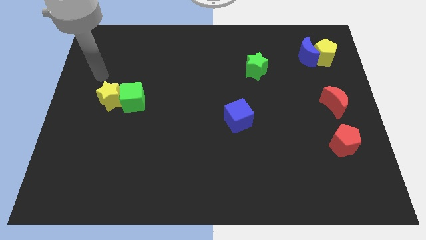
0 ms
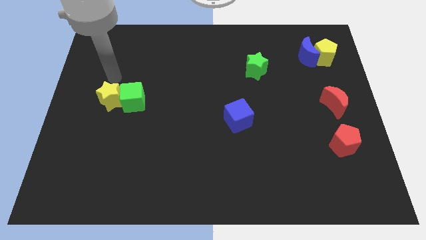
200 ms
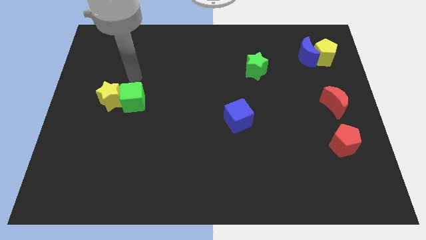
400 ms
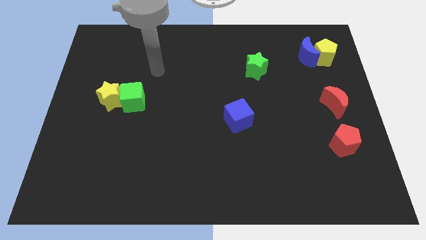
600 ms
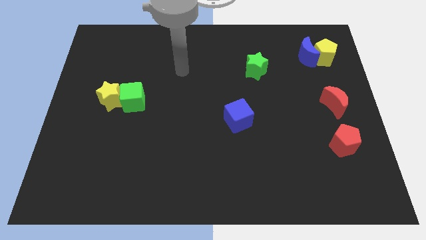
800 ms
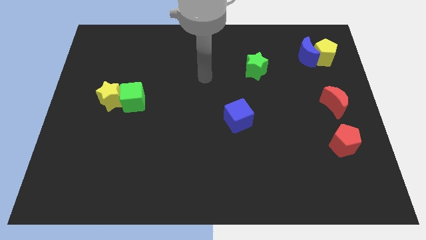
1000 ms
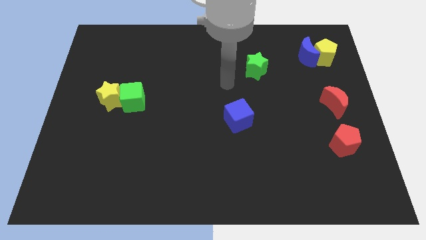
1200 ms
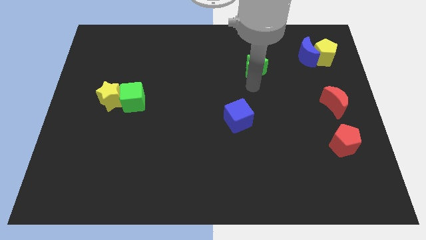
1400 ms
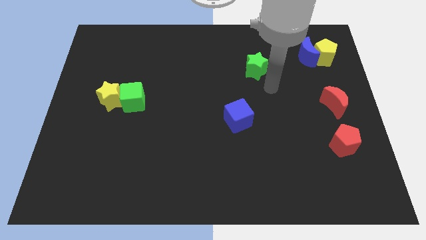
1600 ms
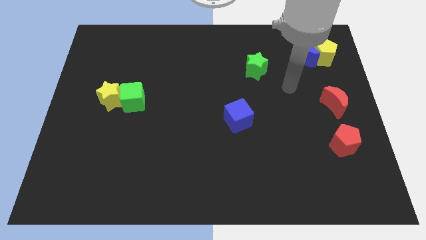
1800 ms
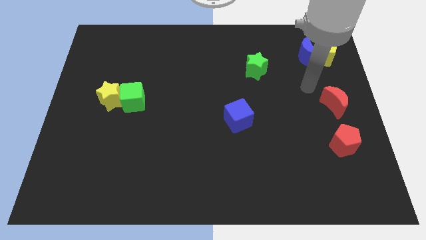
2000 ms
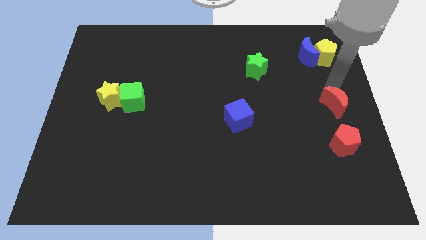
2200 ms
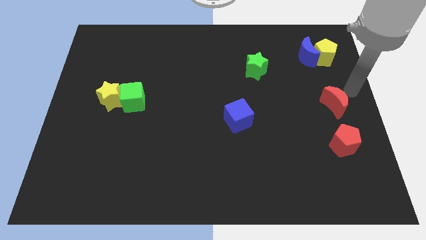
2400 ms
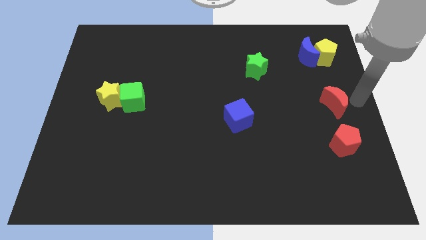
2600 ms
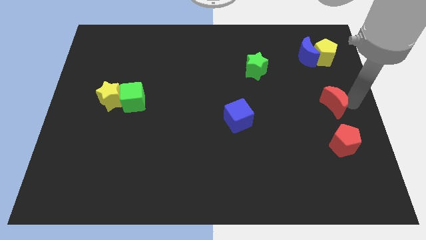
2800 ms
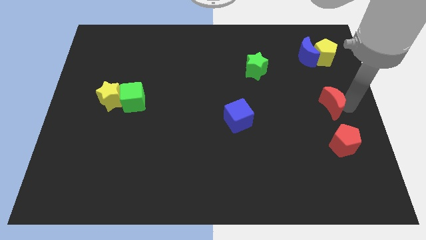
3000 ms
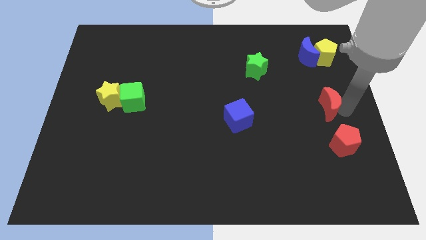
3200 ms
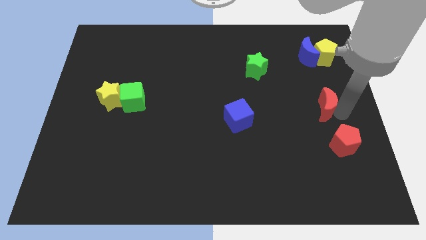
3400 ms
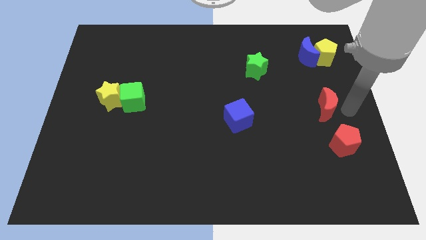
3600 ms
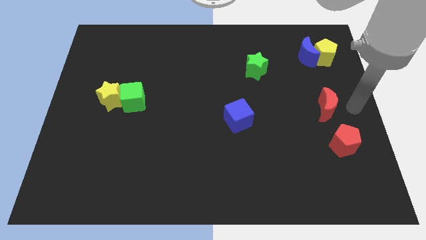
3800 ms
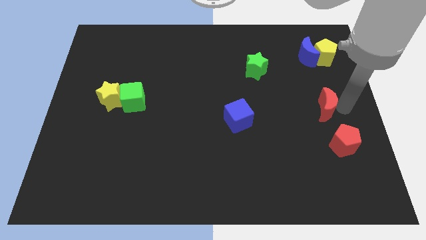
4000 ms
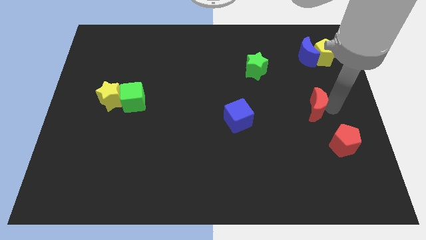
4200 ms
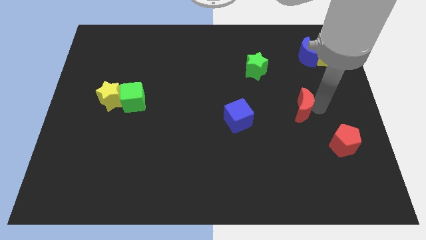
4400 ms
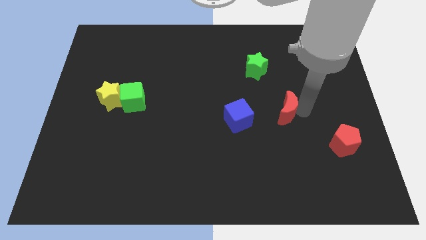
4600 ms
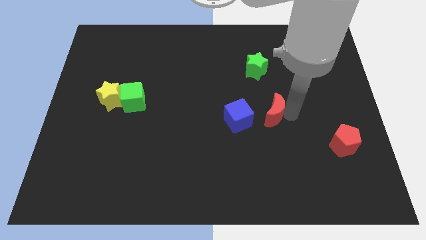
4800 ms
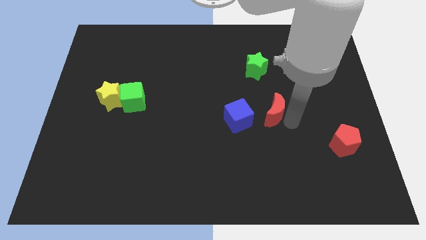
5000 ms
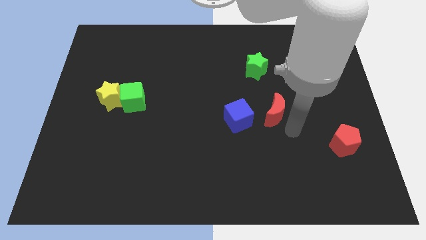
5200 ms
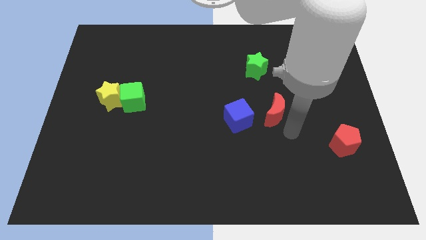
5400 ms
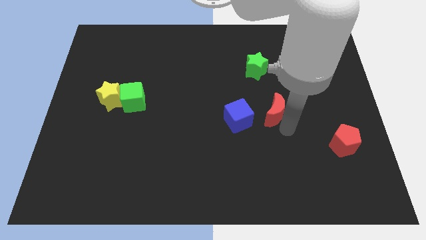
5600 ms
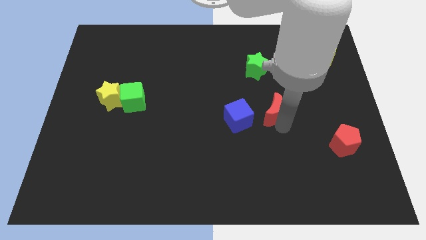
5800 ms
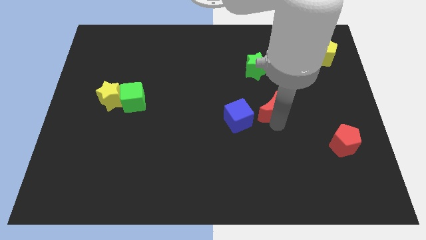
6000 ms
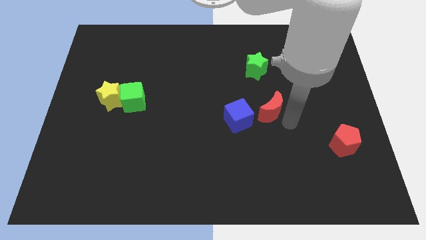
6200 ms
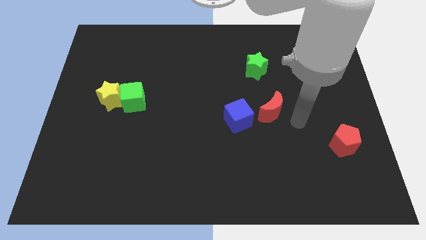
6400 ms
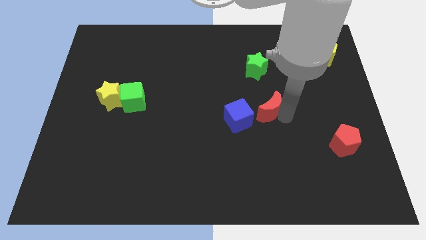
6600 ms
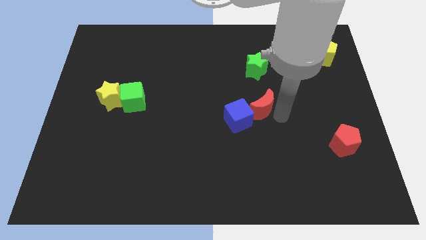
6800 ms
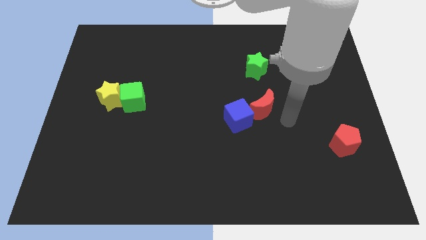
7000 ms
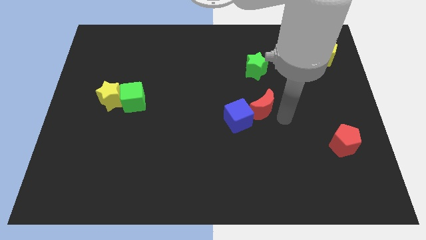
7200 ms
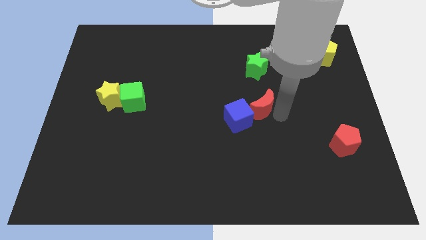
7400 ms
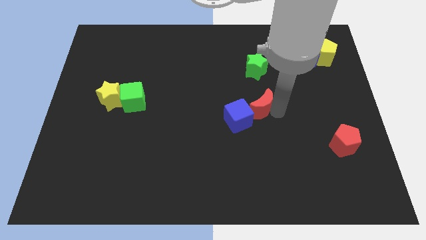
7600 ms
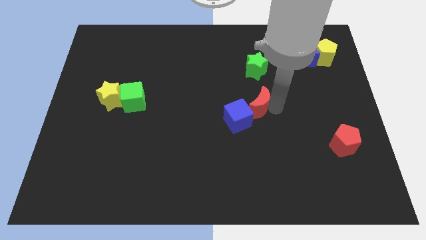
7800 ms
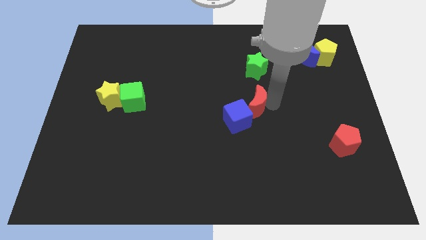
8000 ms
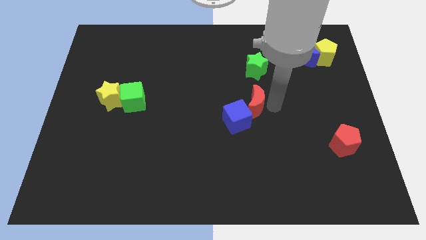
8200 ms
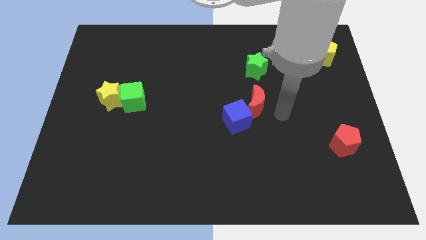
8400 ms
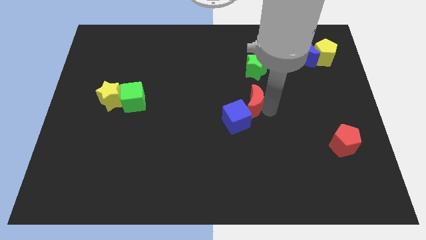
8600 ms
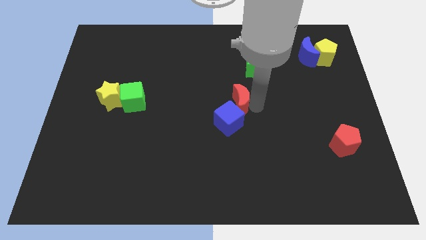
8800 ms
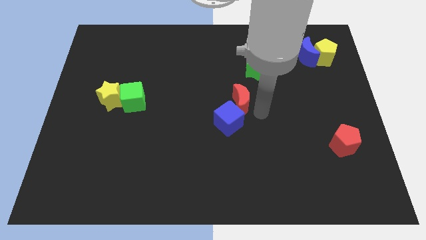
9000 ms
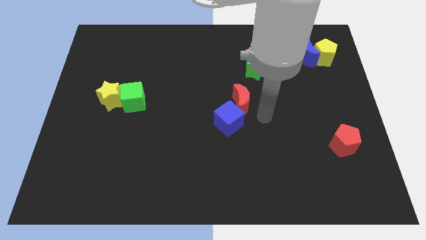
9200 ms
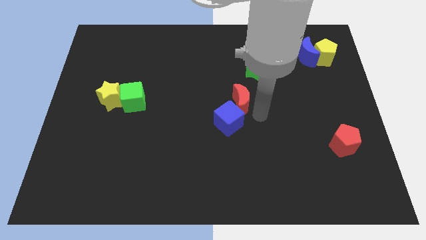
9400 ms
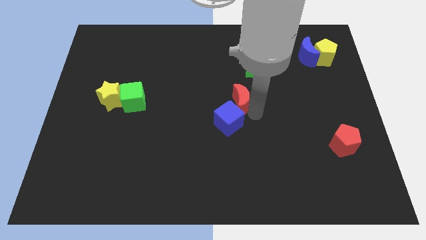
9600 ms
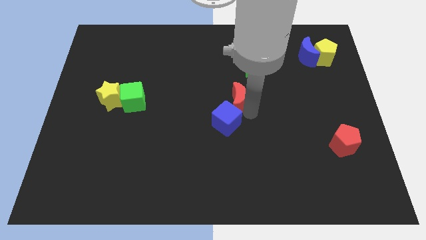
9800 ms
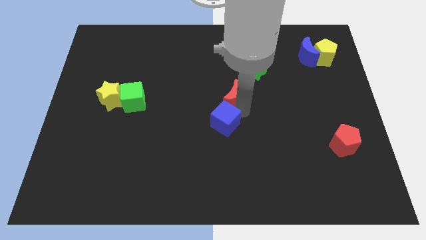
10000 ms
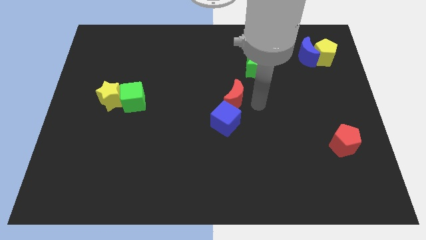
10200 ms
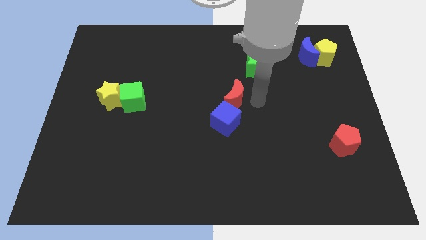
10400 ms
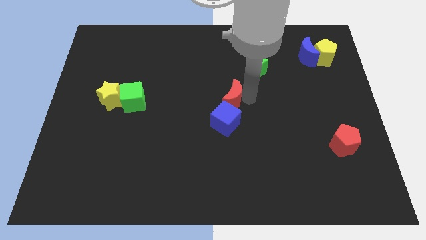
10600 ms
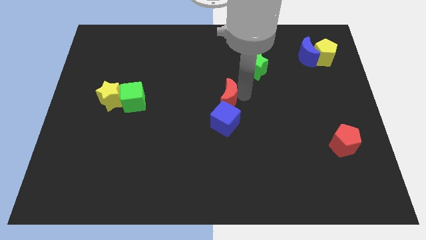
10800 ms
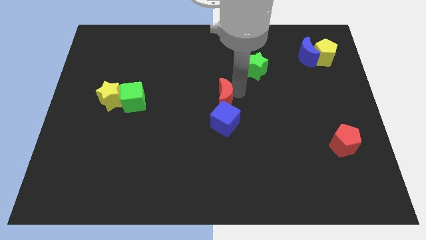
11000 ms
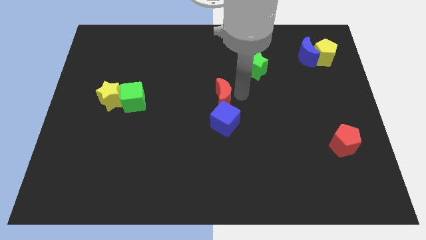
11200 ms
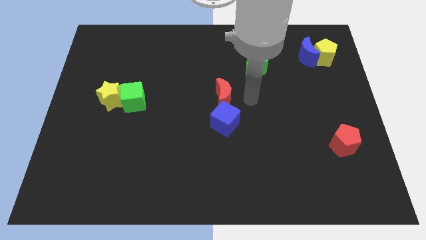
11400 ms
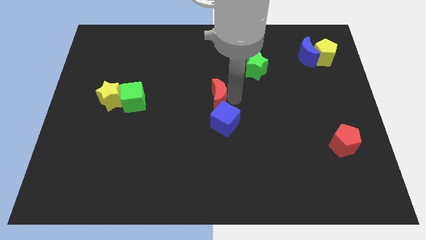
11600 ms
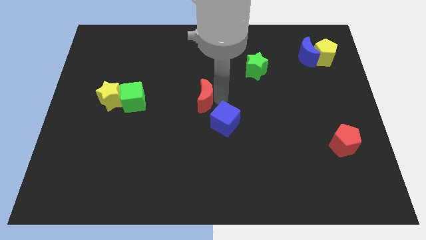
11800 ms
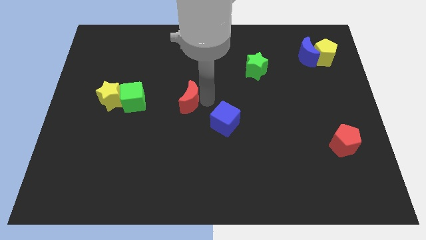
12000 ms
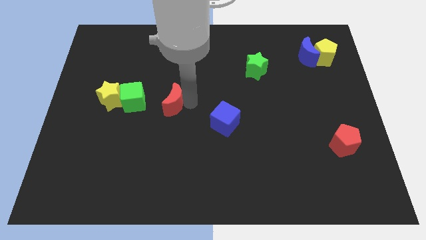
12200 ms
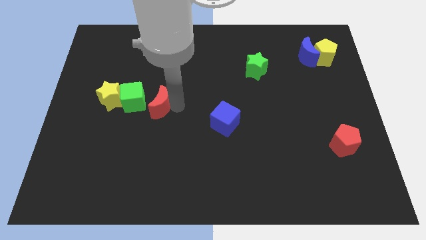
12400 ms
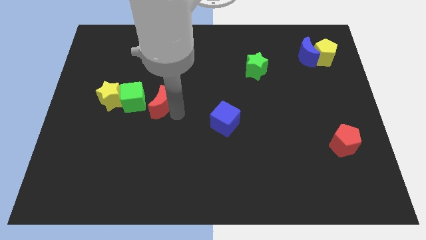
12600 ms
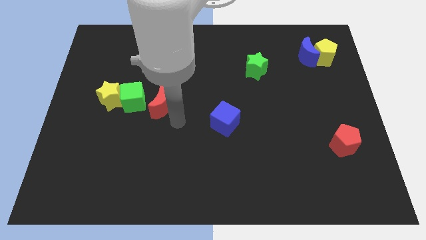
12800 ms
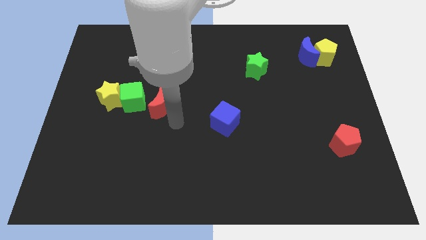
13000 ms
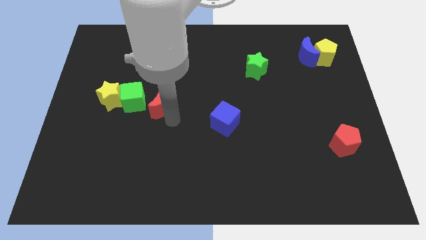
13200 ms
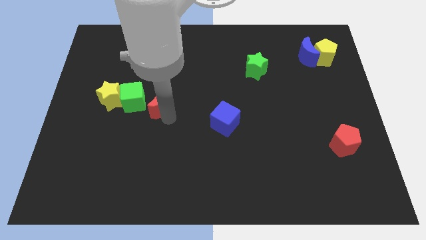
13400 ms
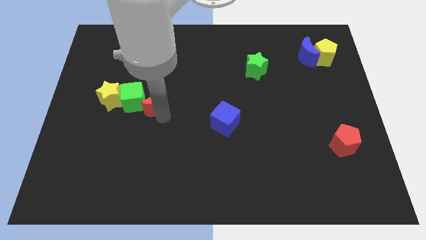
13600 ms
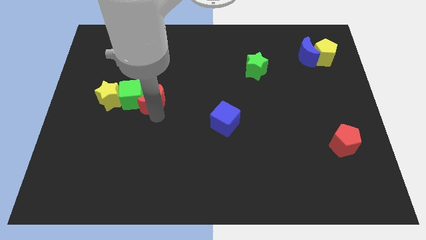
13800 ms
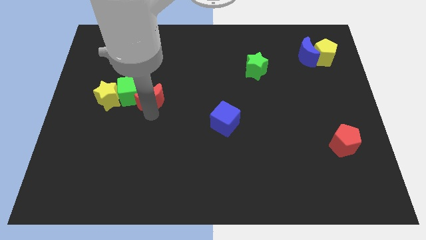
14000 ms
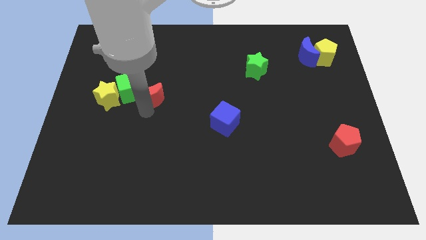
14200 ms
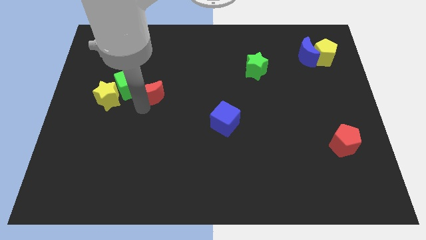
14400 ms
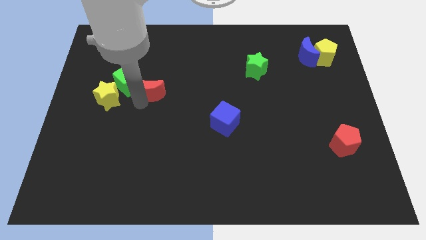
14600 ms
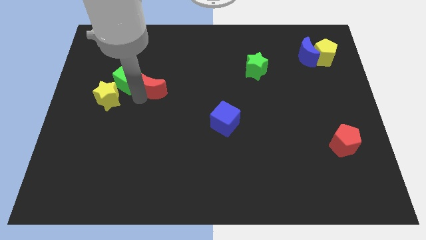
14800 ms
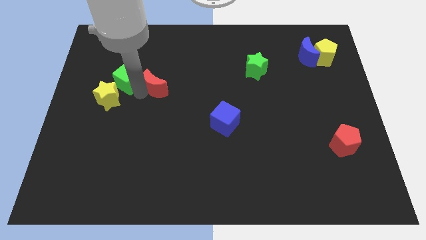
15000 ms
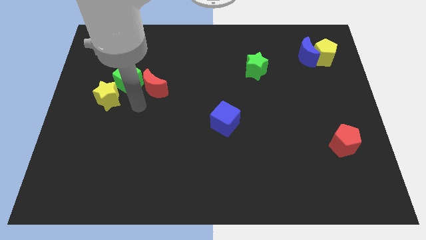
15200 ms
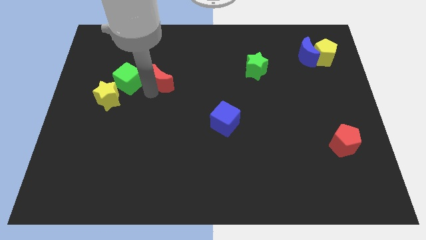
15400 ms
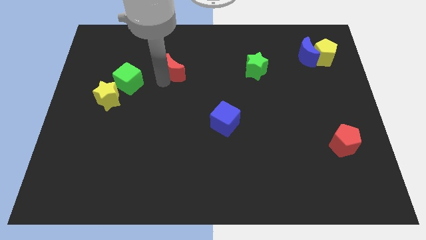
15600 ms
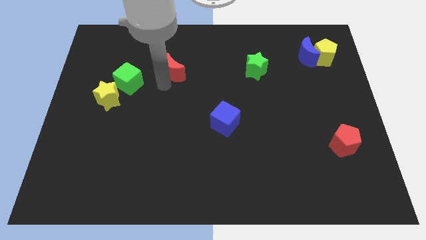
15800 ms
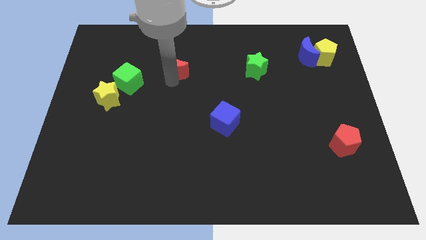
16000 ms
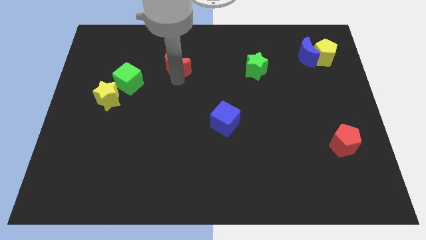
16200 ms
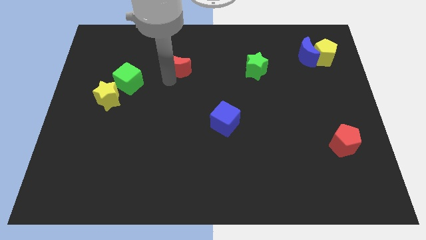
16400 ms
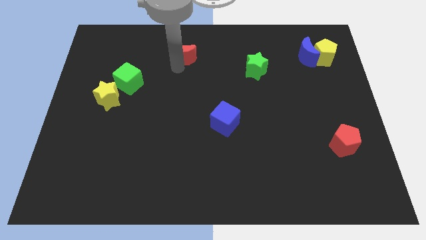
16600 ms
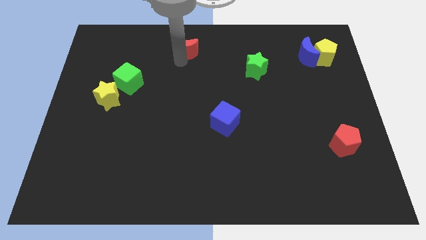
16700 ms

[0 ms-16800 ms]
push the red moon to the top
